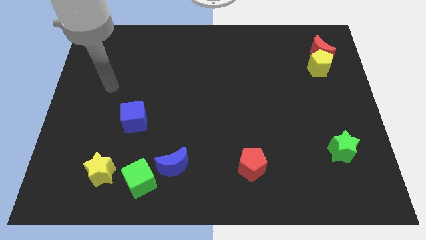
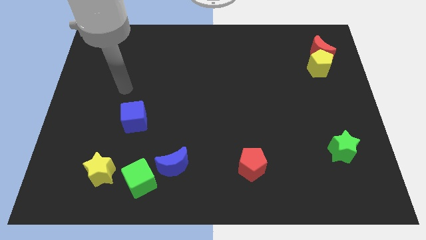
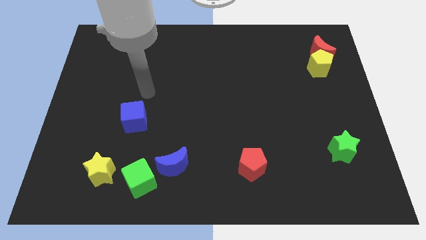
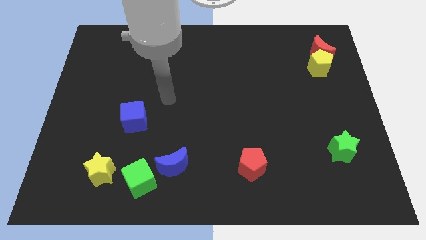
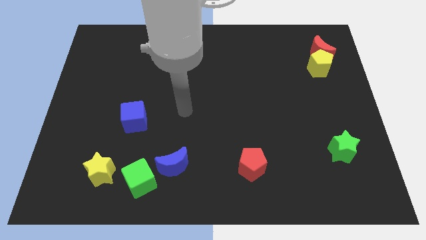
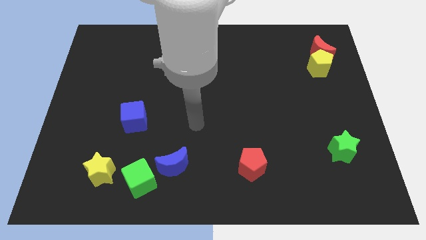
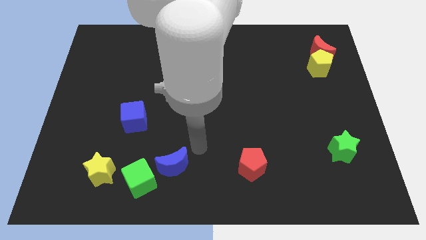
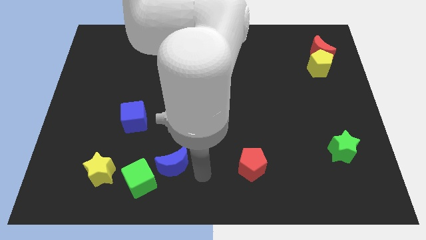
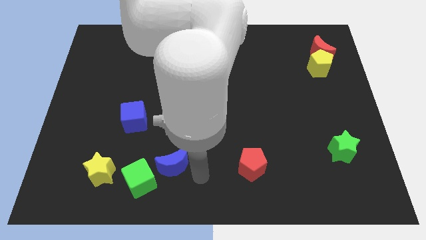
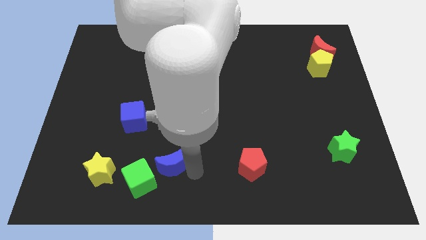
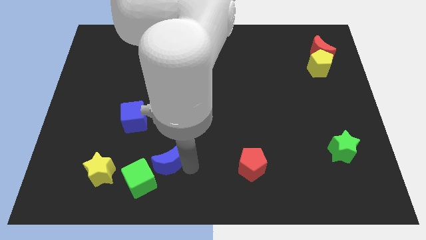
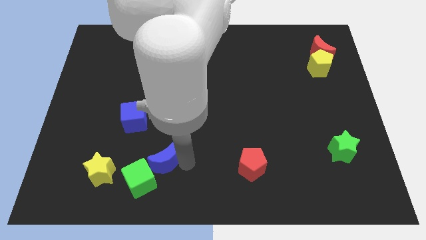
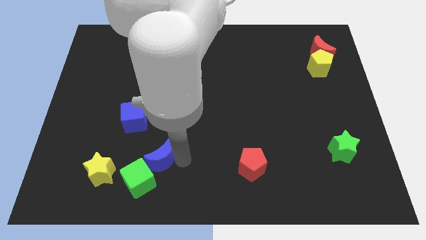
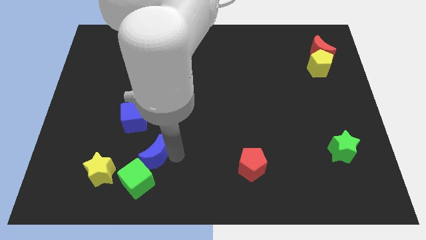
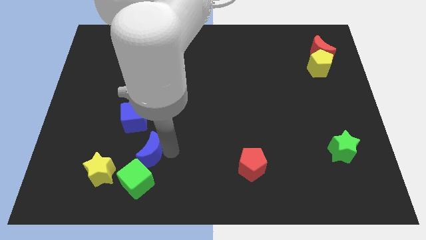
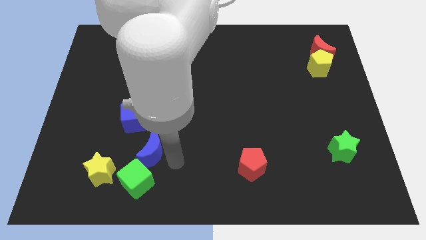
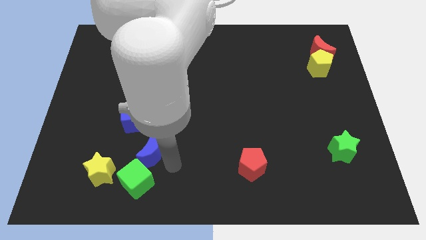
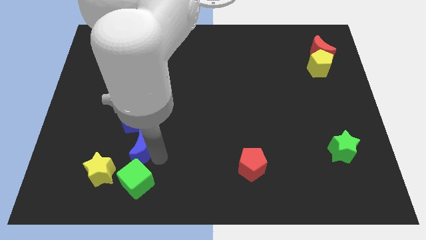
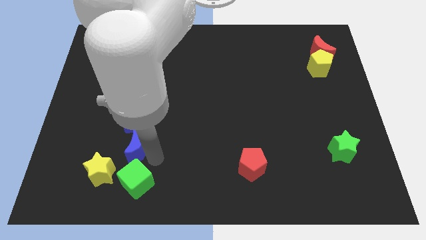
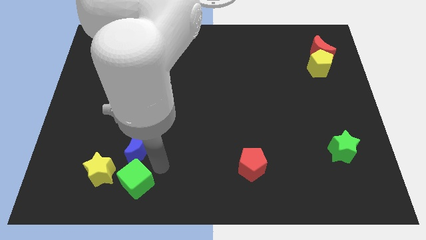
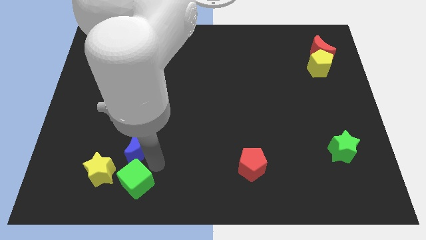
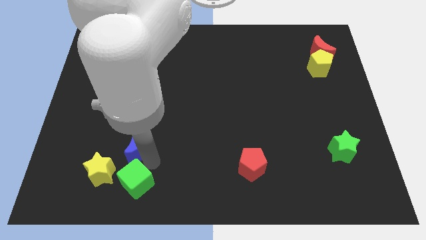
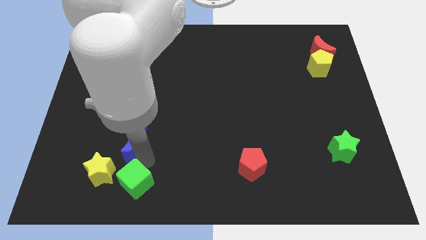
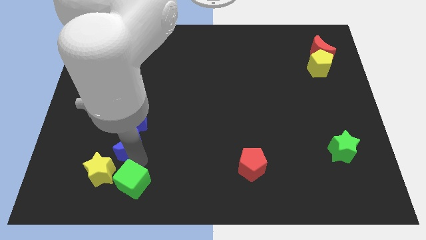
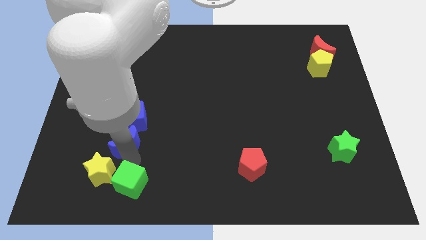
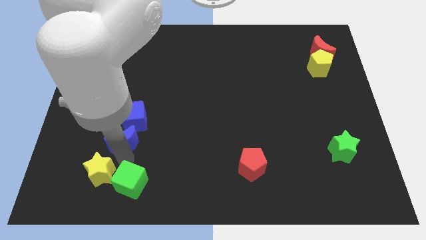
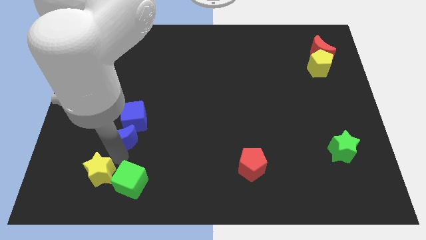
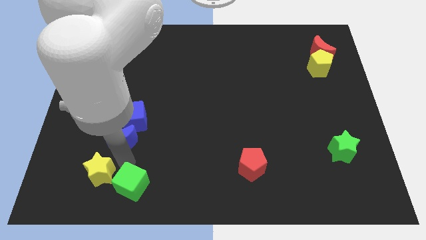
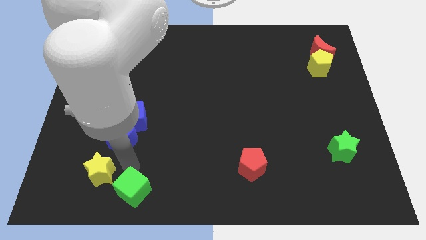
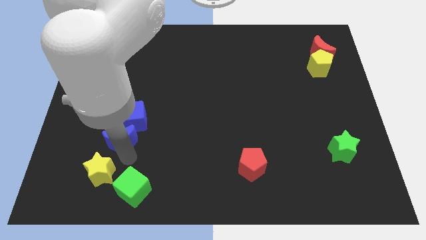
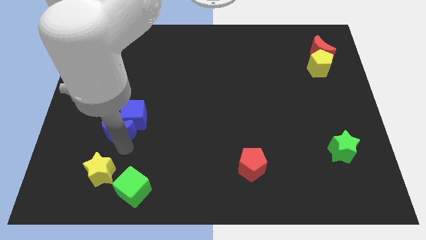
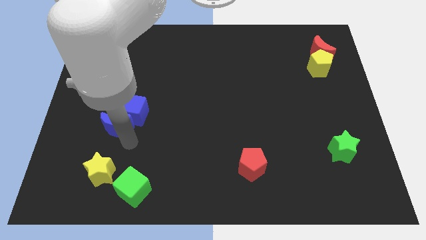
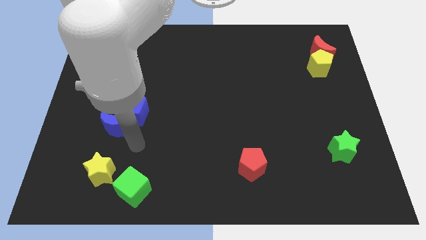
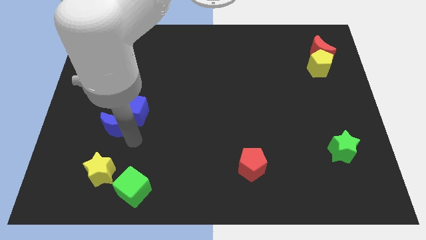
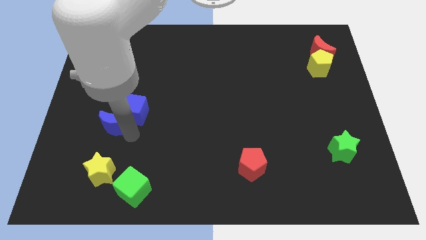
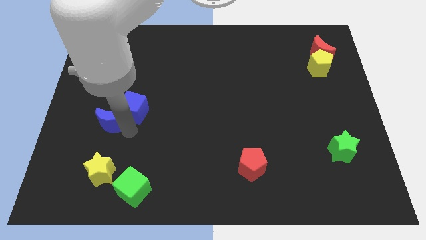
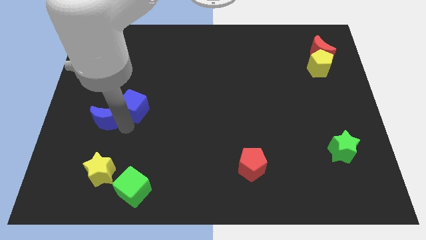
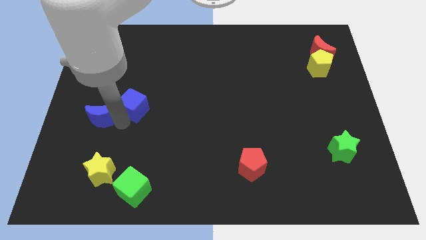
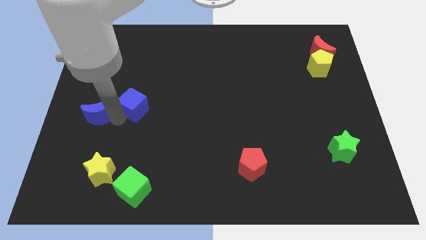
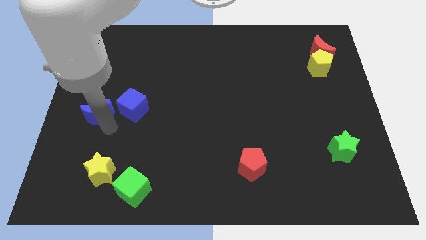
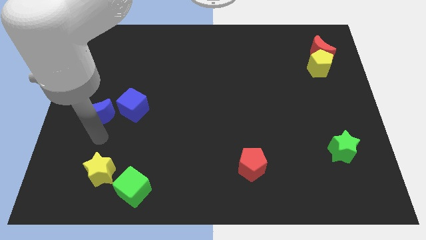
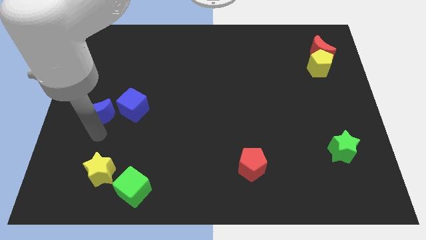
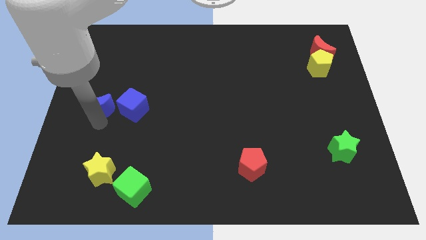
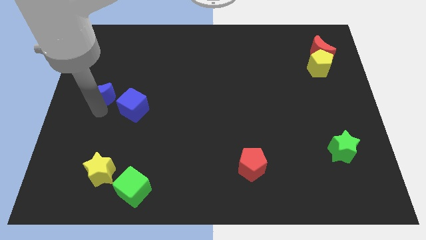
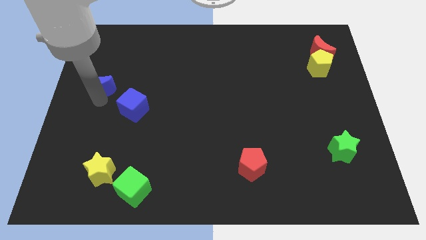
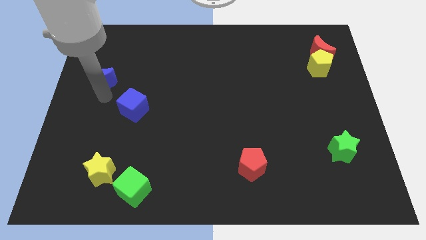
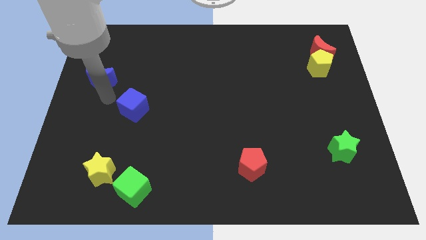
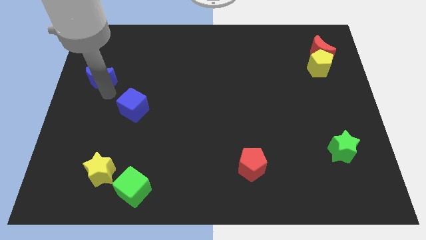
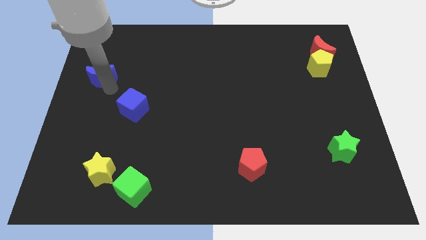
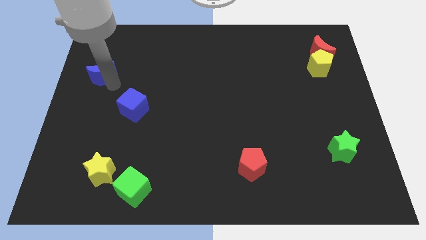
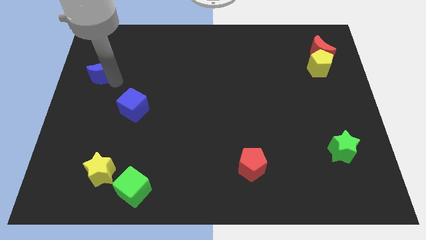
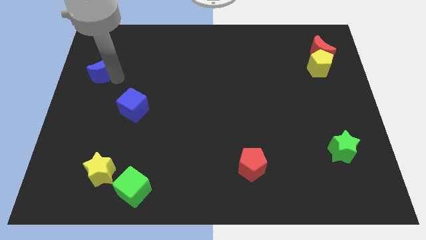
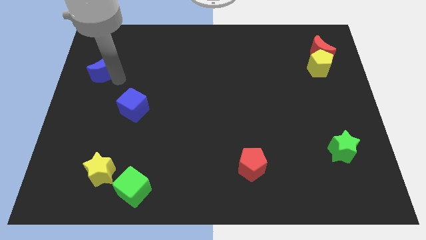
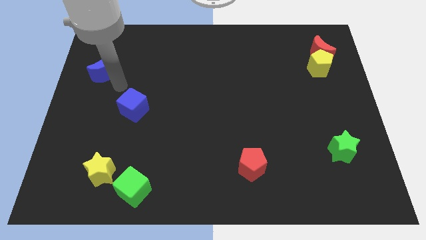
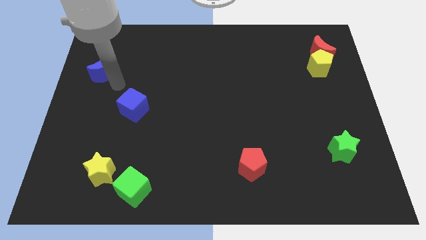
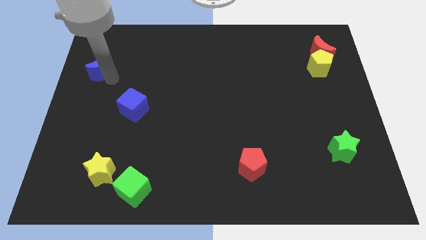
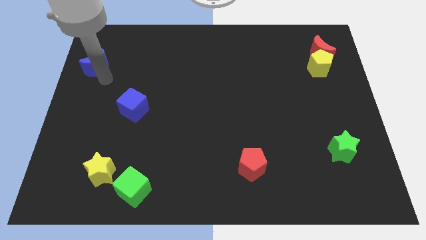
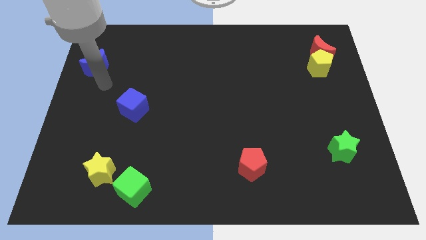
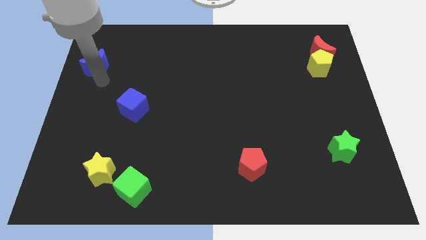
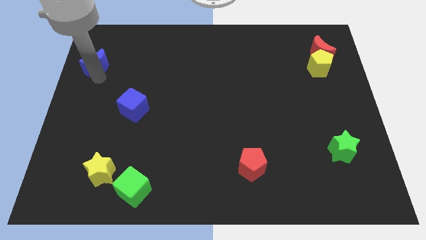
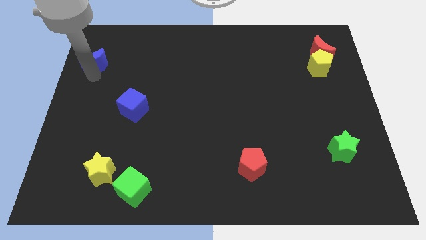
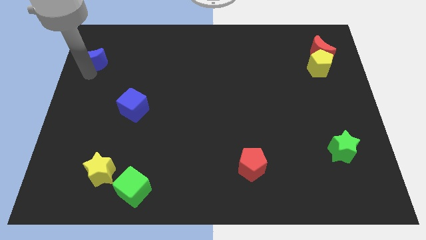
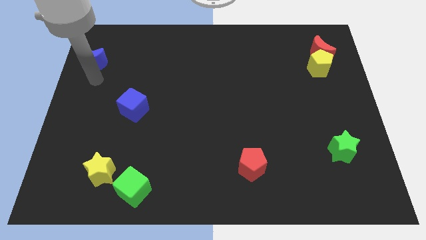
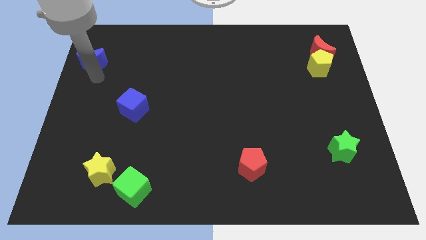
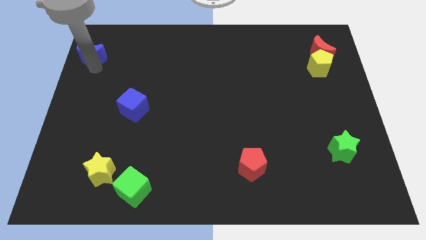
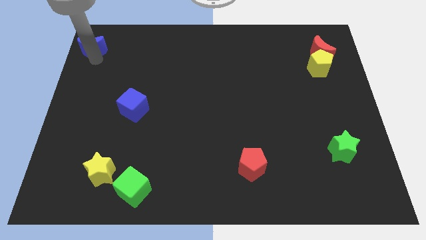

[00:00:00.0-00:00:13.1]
push the blue moon to the top left of the board
